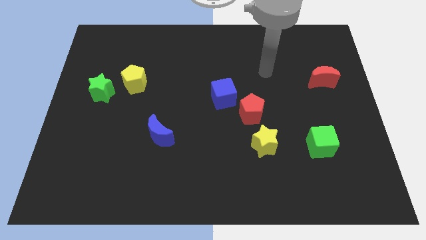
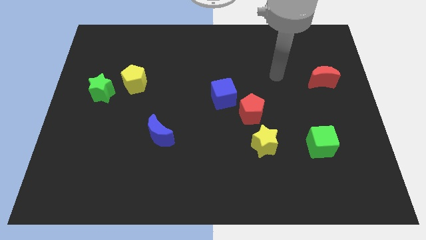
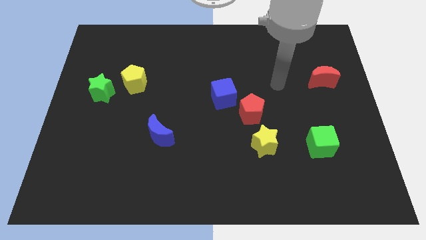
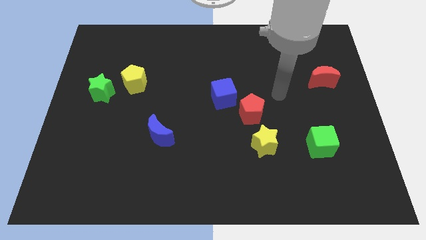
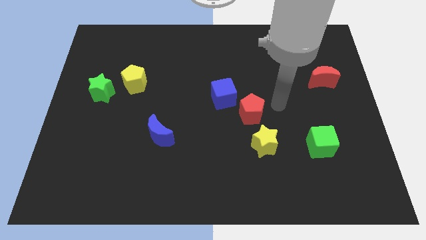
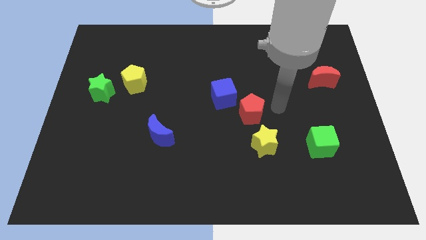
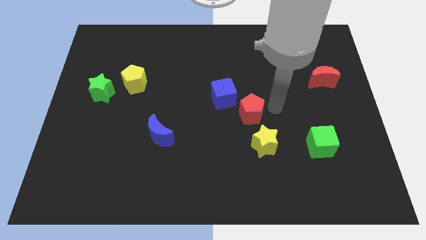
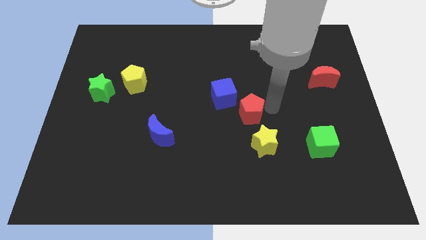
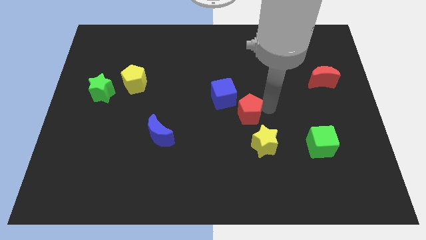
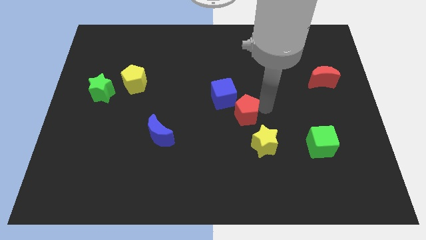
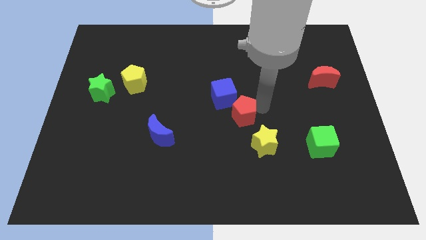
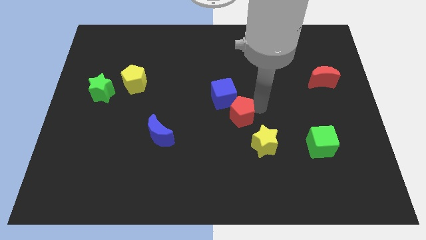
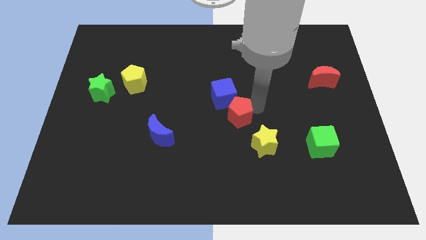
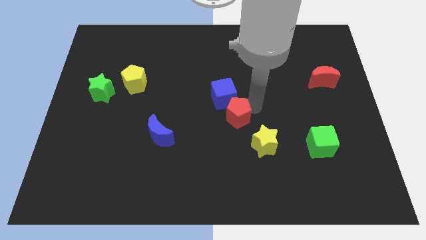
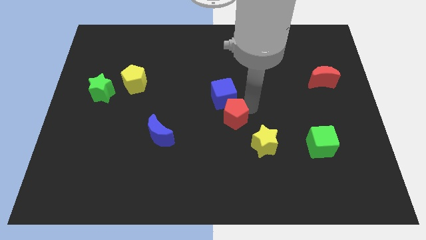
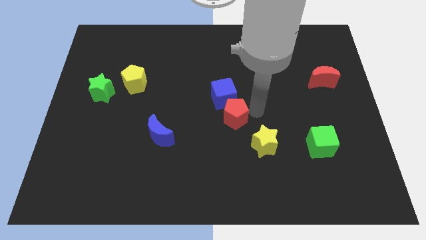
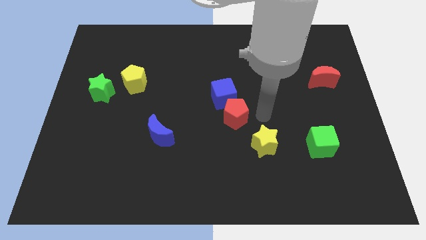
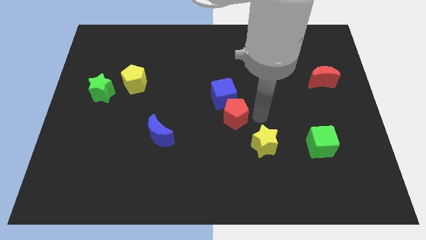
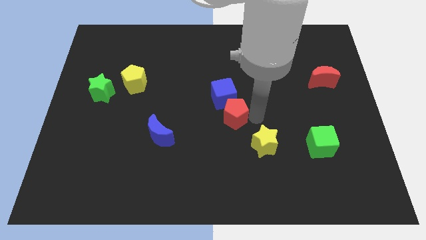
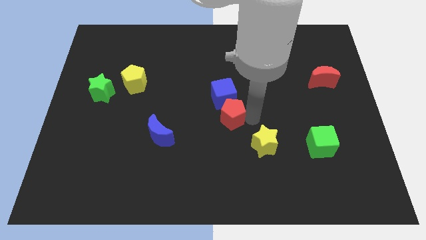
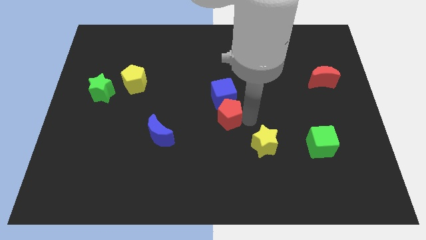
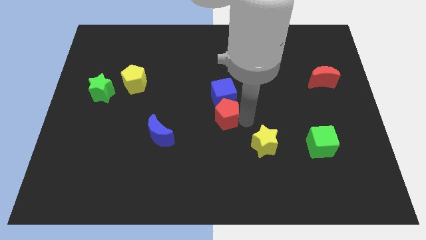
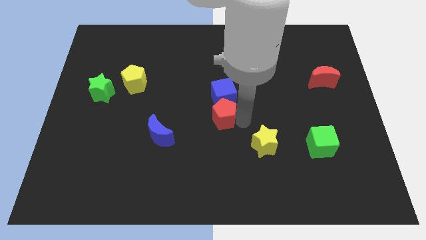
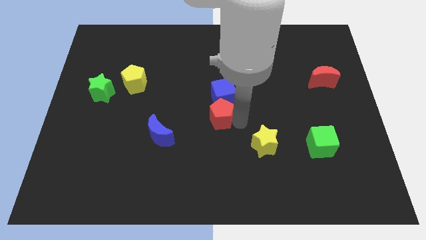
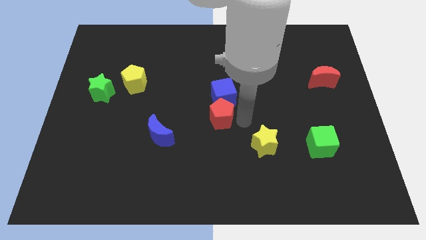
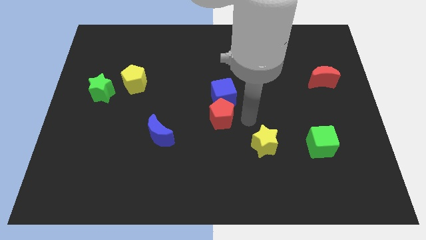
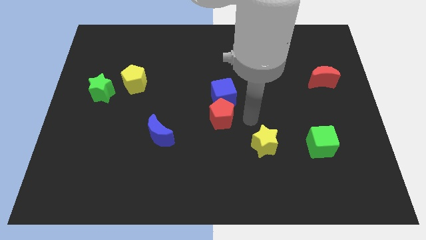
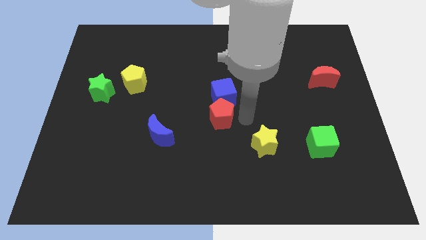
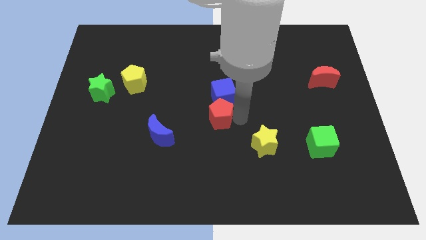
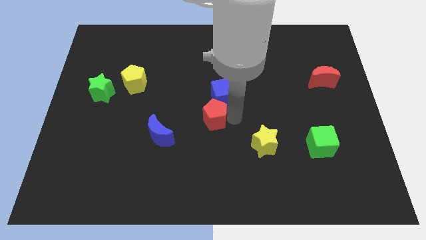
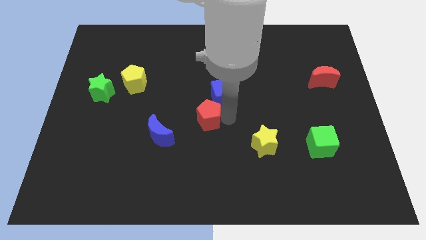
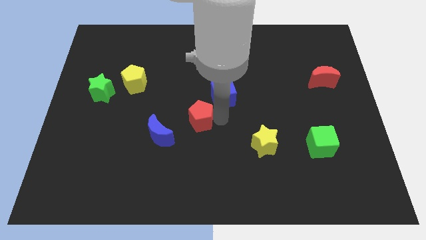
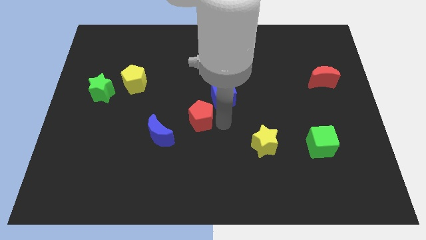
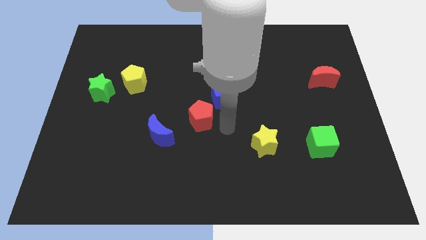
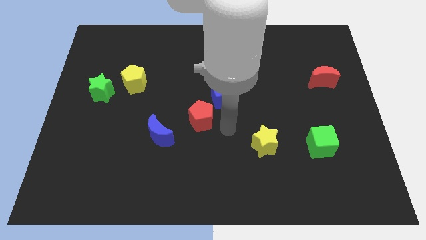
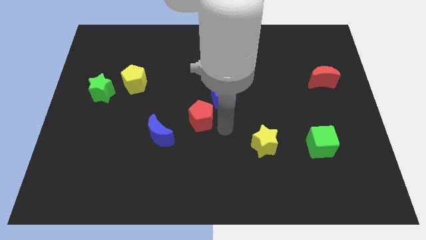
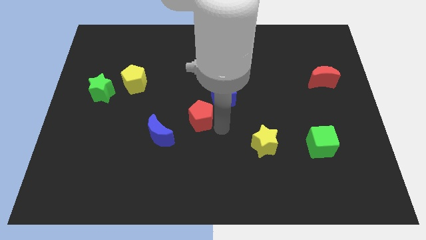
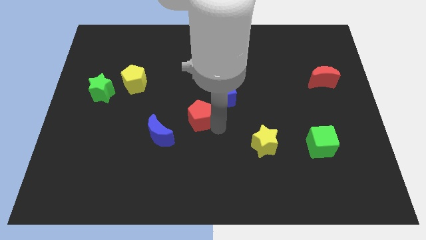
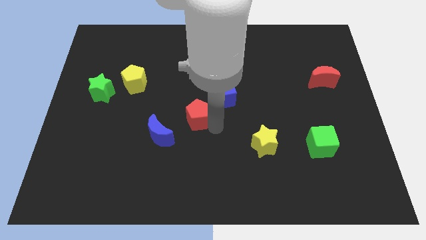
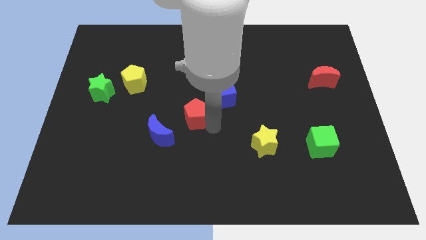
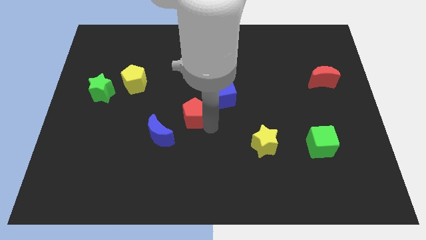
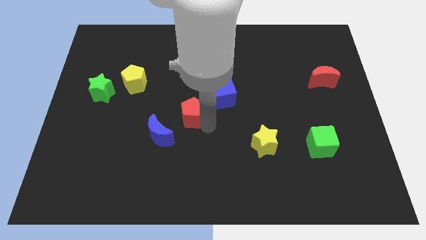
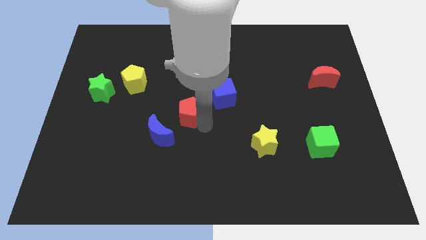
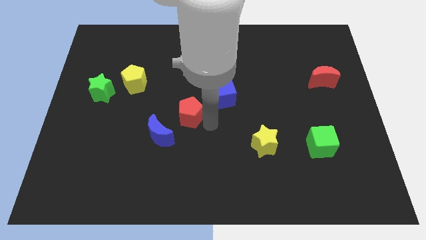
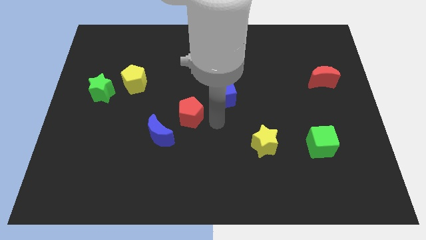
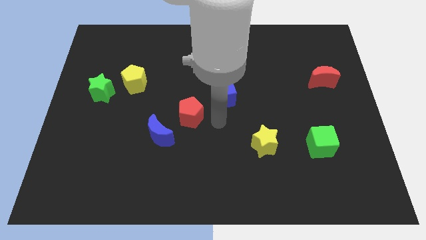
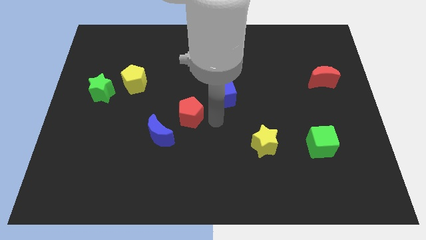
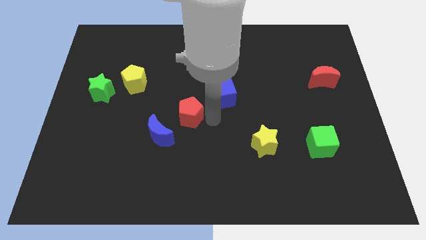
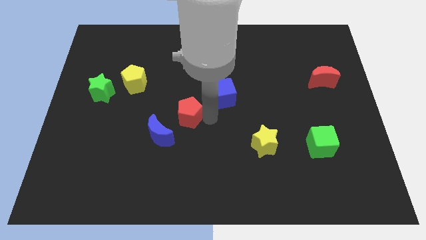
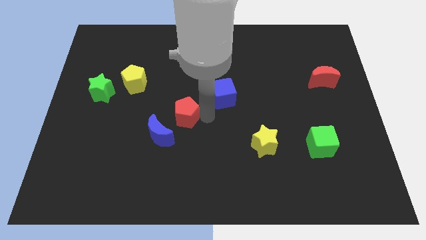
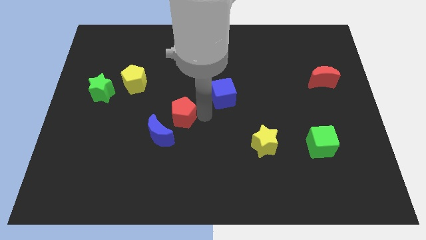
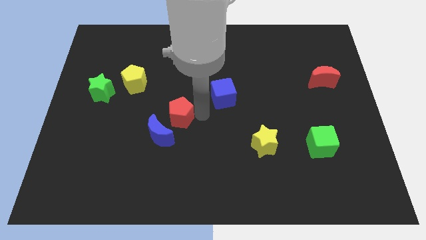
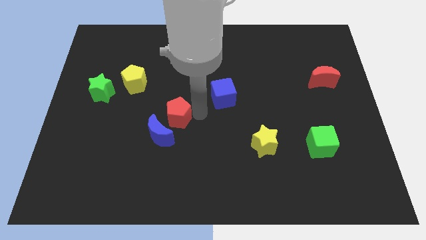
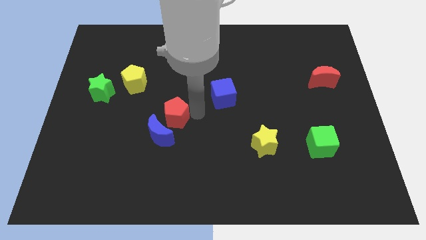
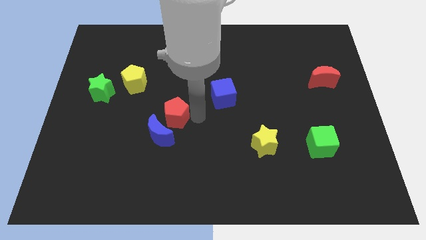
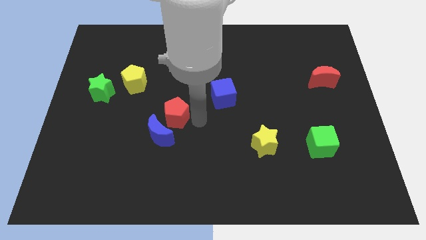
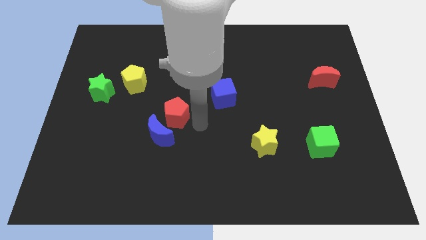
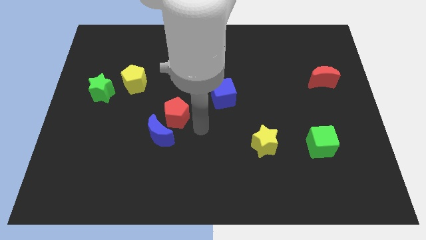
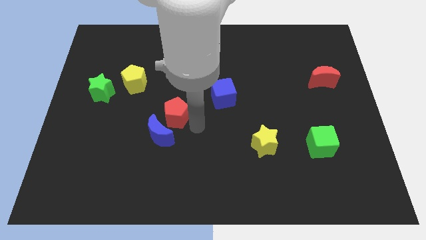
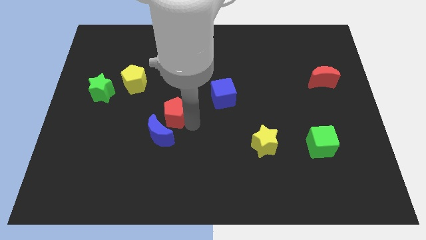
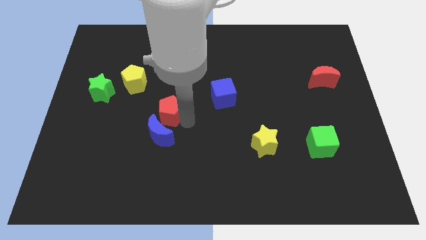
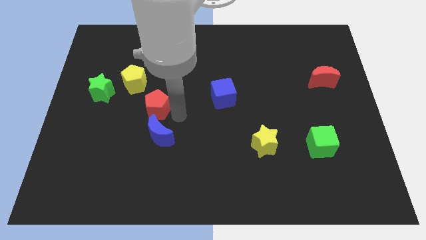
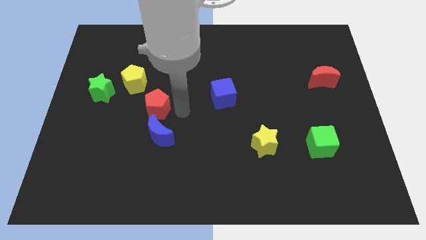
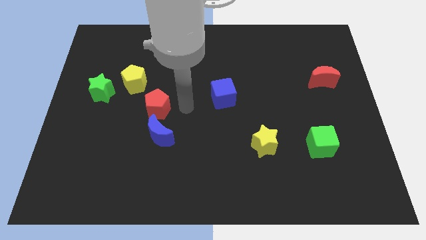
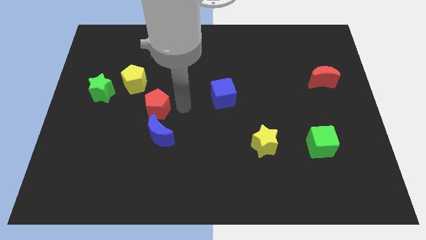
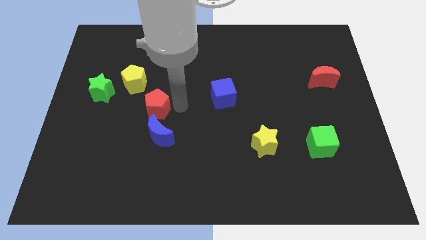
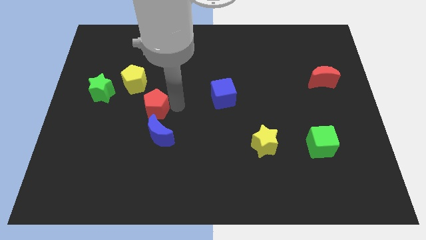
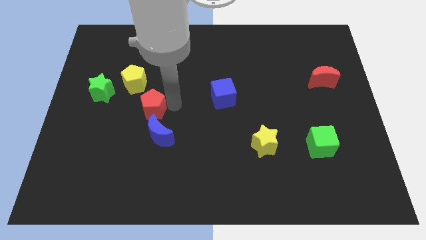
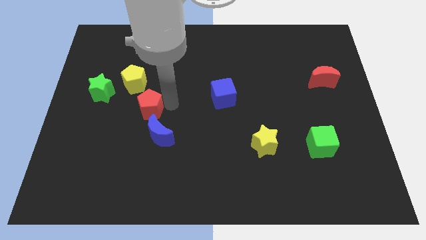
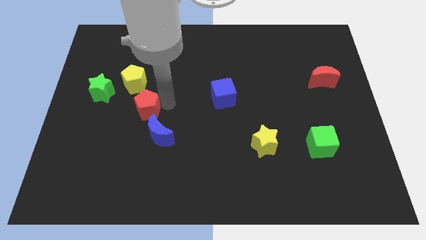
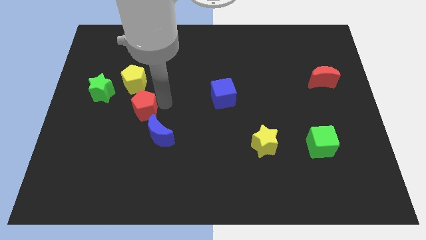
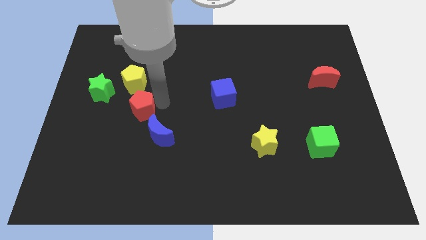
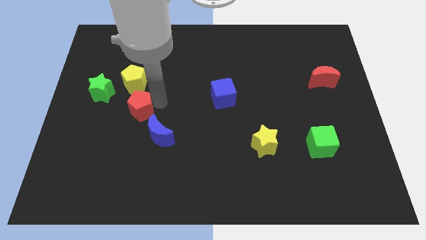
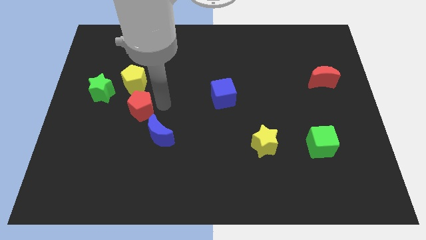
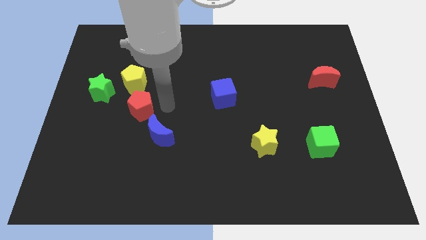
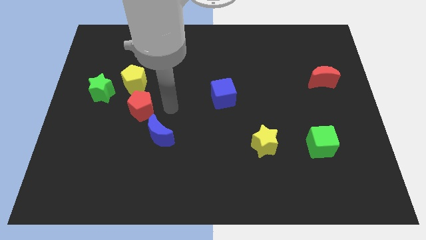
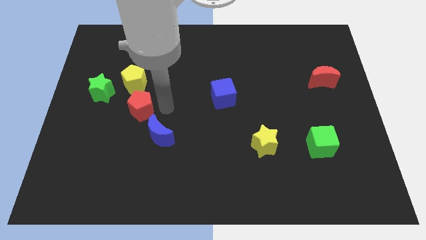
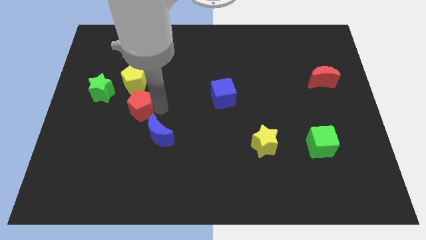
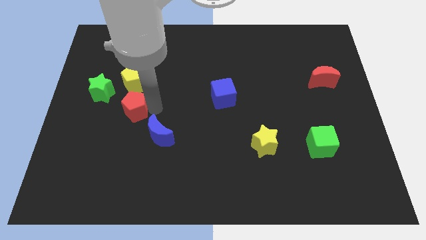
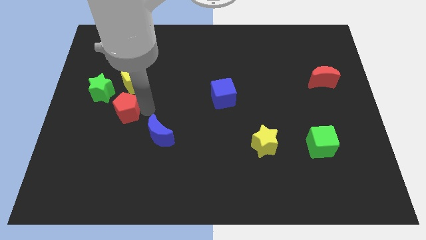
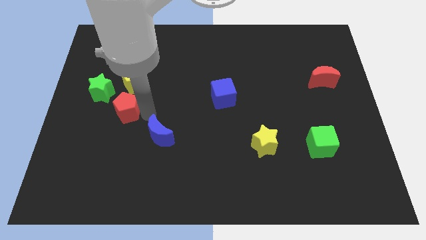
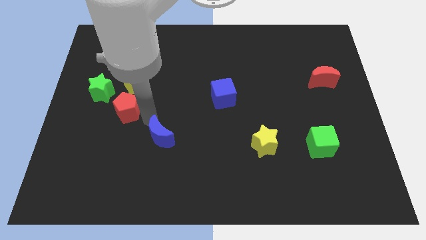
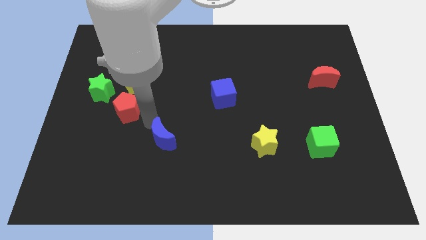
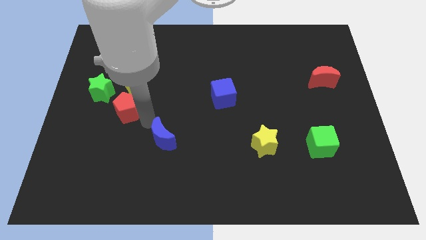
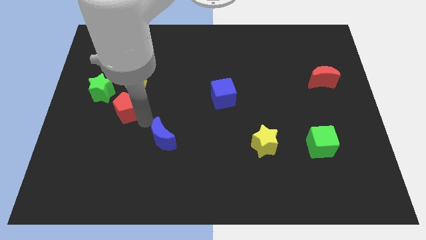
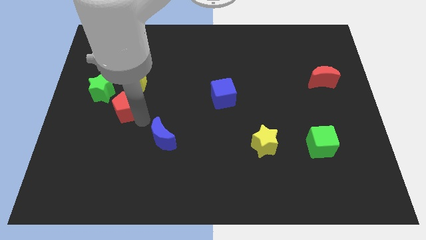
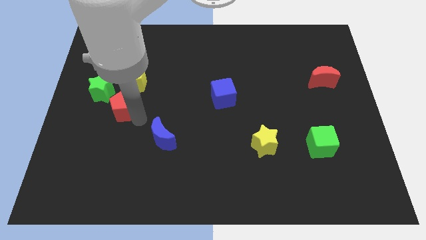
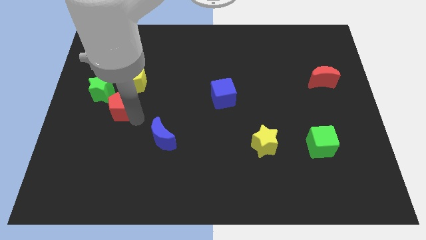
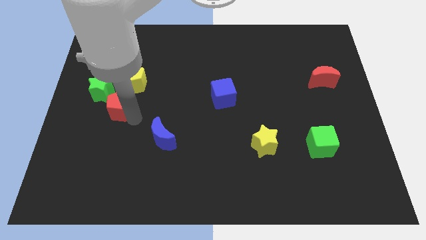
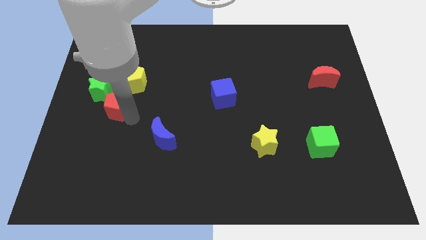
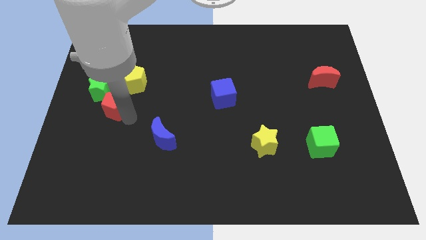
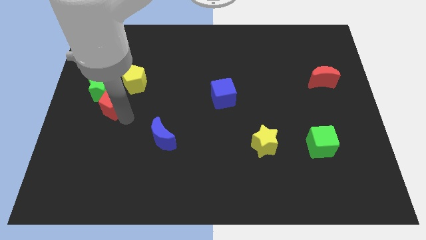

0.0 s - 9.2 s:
push the red pentagon next to the green star
